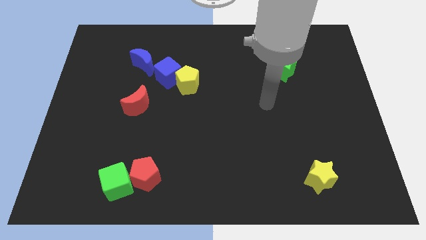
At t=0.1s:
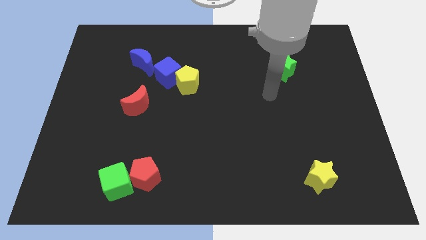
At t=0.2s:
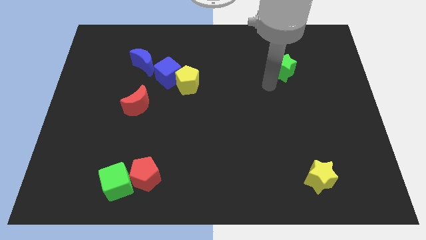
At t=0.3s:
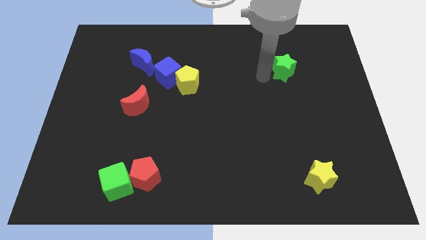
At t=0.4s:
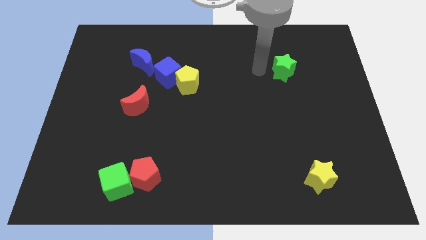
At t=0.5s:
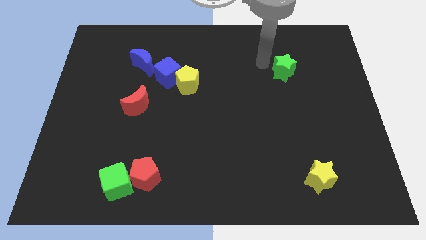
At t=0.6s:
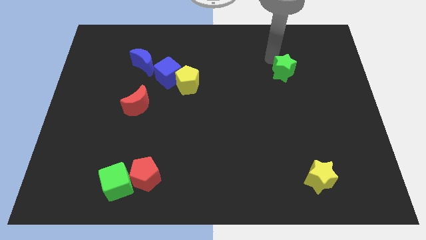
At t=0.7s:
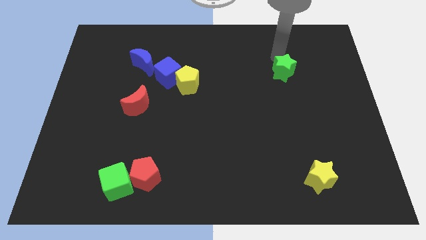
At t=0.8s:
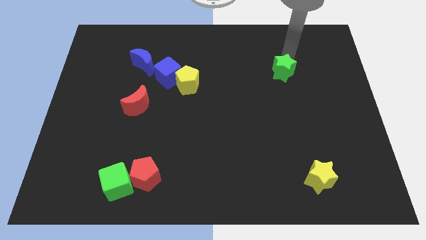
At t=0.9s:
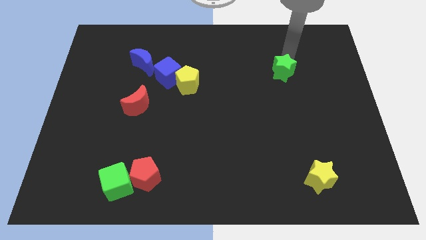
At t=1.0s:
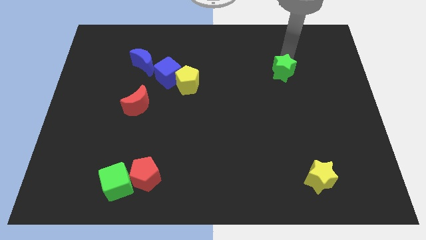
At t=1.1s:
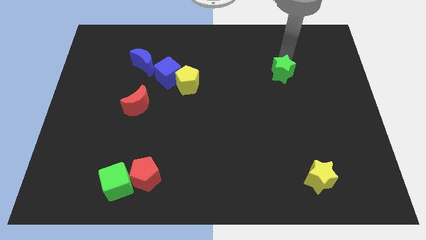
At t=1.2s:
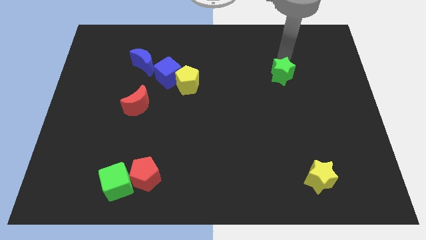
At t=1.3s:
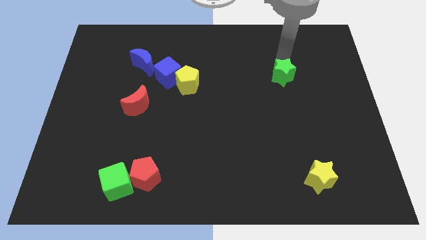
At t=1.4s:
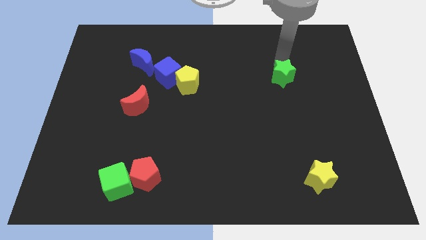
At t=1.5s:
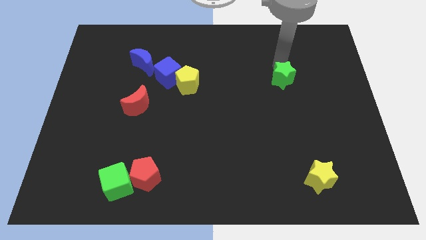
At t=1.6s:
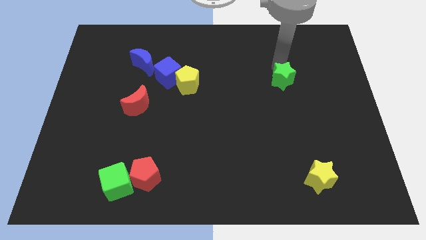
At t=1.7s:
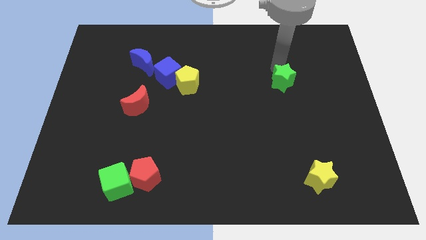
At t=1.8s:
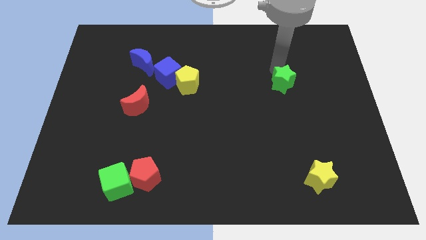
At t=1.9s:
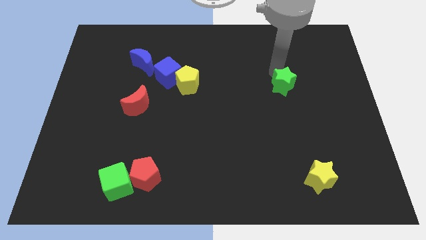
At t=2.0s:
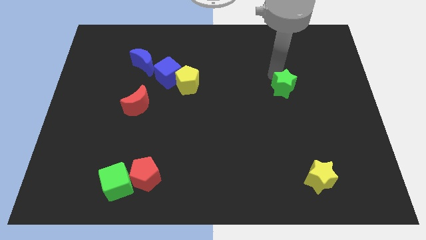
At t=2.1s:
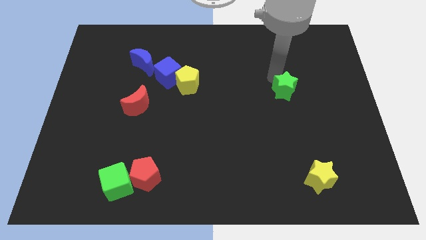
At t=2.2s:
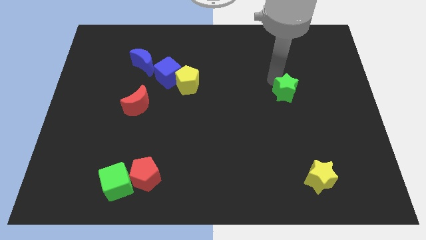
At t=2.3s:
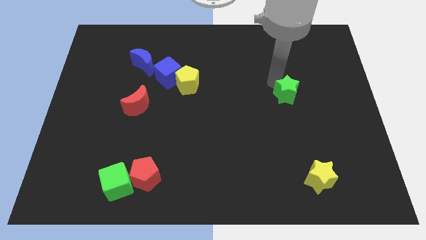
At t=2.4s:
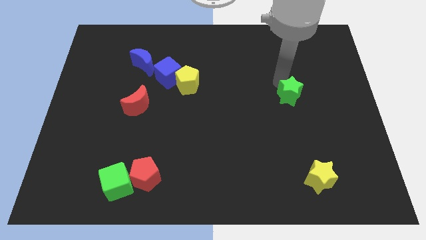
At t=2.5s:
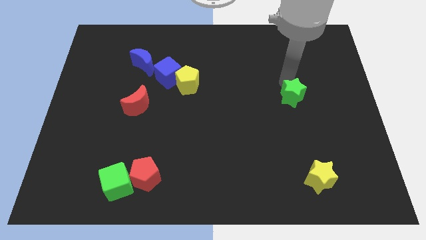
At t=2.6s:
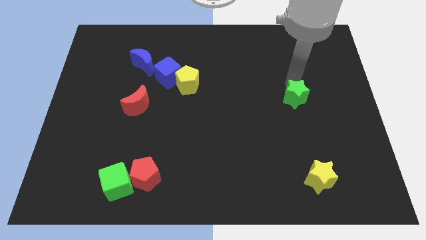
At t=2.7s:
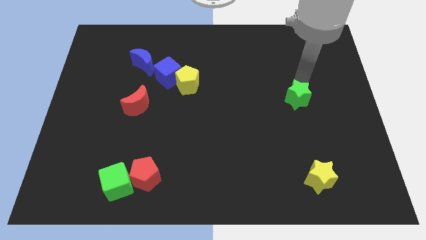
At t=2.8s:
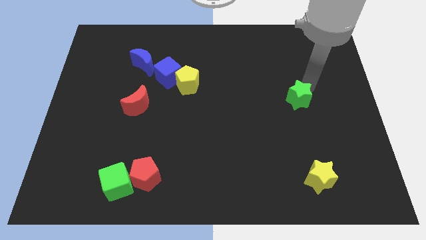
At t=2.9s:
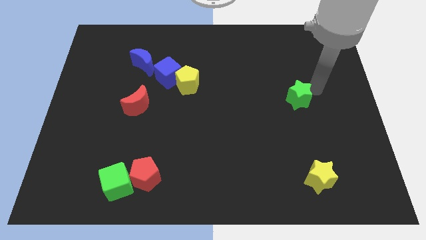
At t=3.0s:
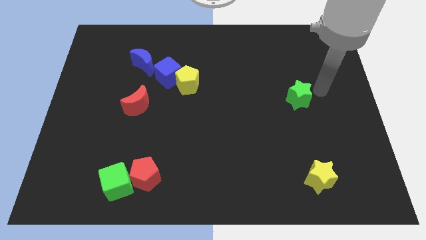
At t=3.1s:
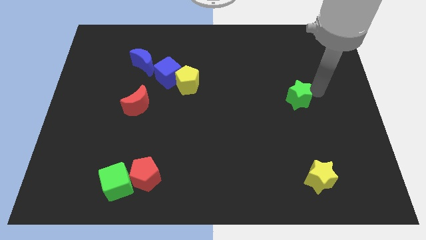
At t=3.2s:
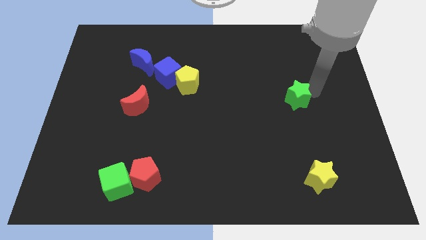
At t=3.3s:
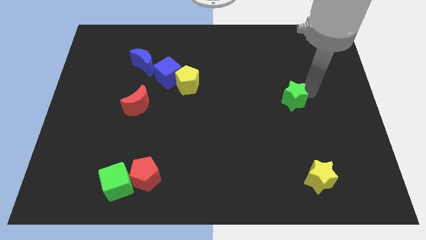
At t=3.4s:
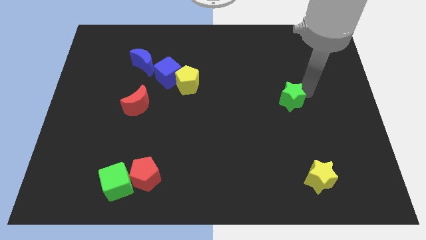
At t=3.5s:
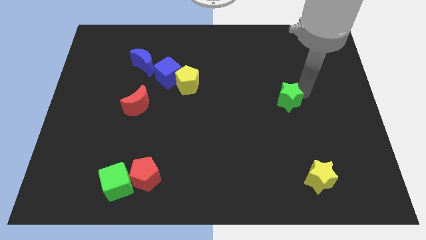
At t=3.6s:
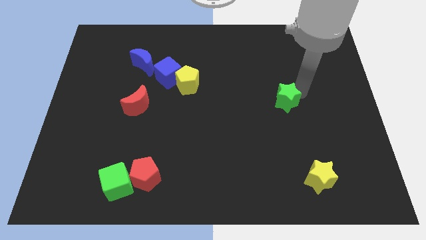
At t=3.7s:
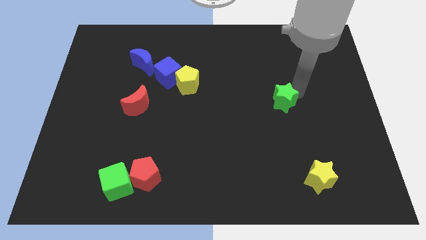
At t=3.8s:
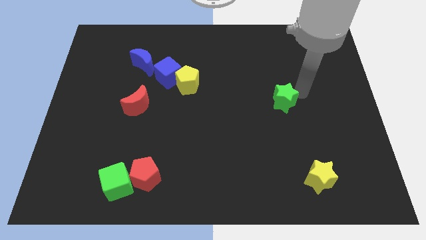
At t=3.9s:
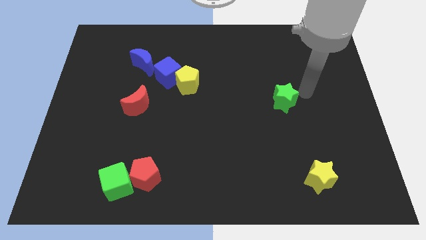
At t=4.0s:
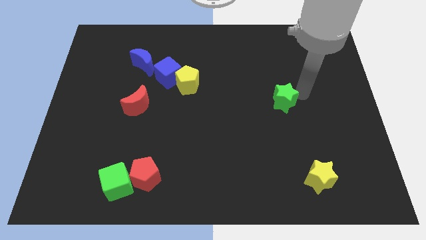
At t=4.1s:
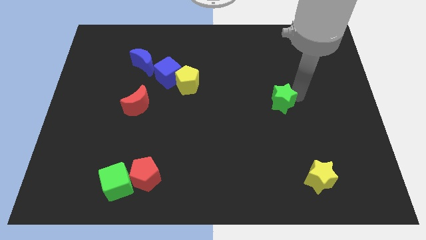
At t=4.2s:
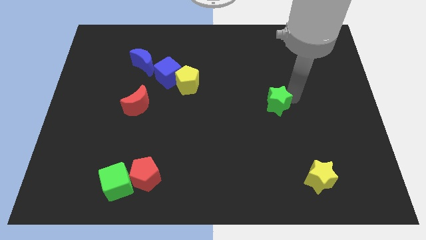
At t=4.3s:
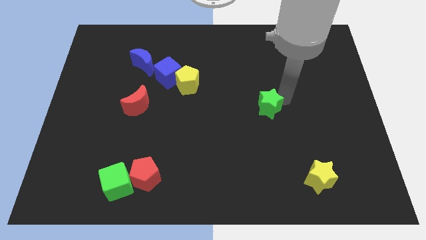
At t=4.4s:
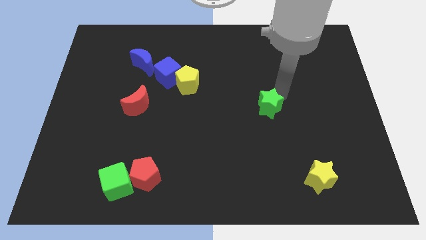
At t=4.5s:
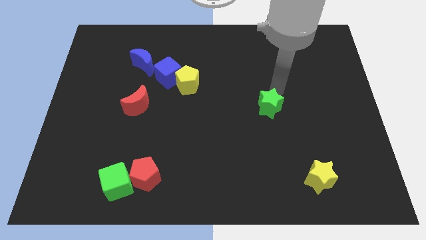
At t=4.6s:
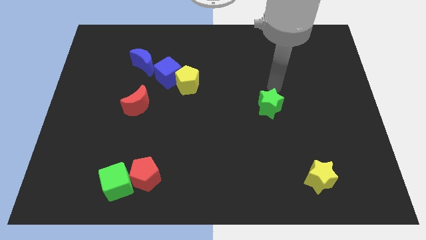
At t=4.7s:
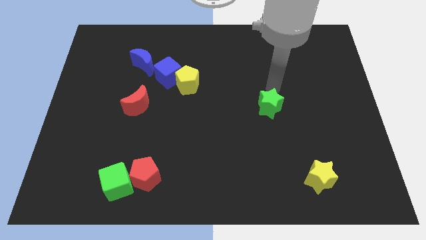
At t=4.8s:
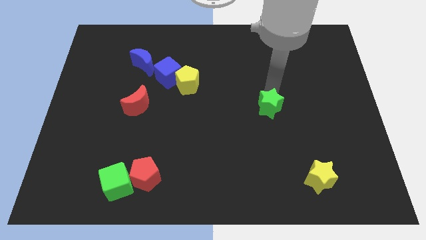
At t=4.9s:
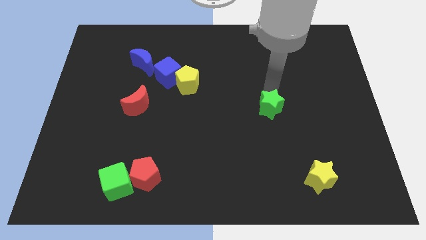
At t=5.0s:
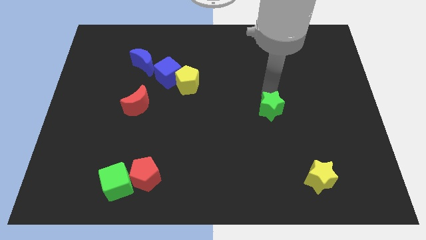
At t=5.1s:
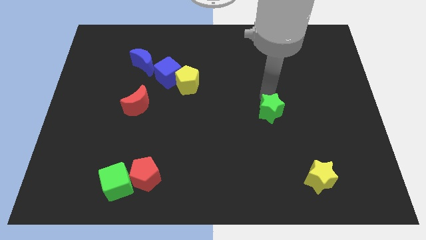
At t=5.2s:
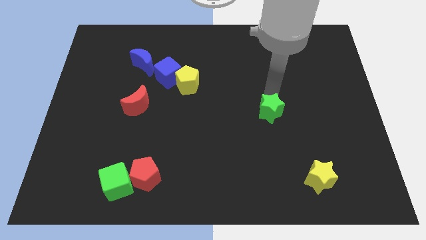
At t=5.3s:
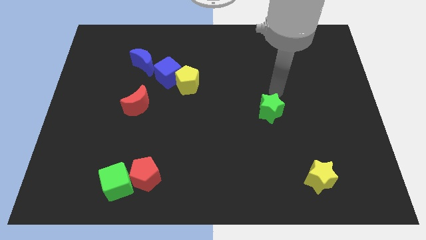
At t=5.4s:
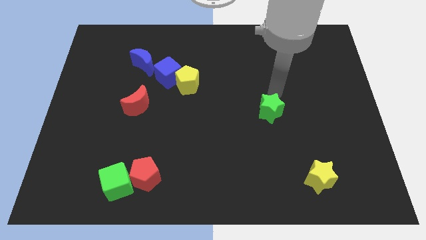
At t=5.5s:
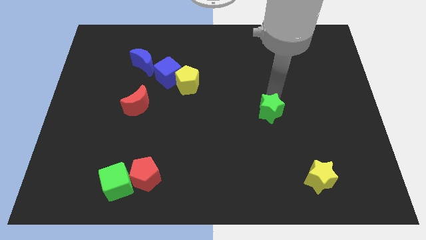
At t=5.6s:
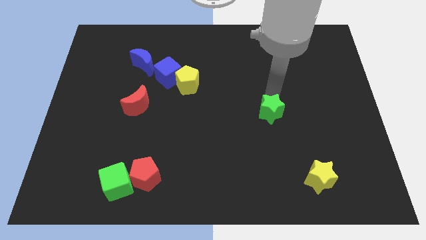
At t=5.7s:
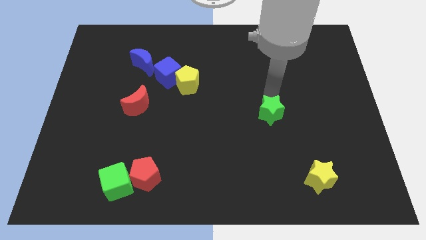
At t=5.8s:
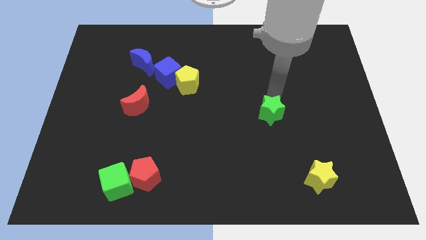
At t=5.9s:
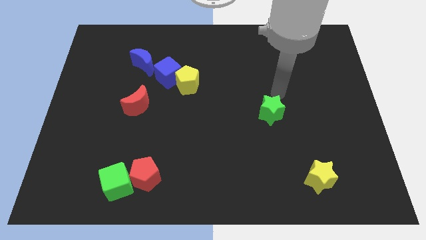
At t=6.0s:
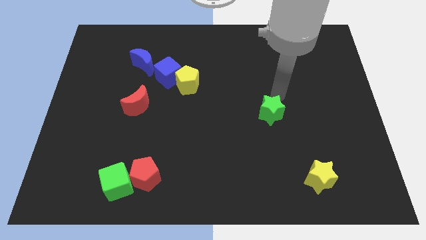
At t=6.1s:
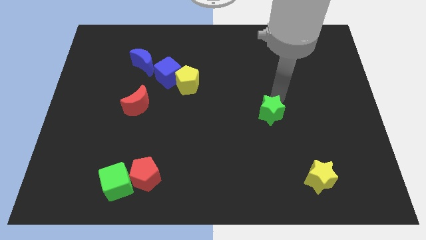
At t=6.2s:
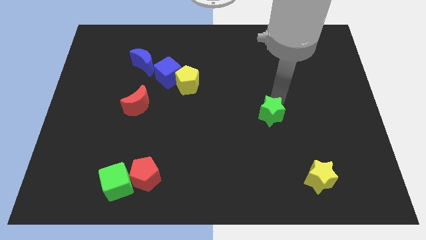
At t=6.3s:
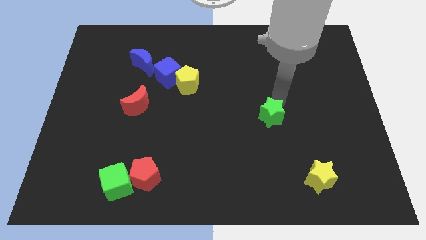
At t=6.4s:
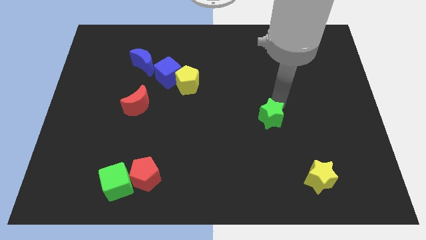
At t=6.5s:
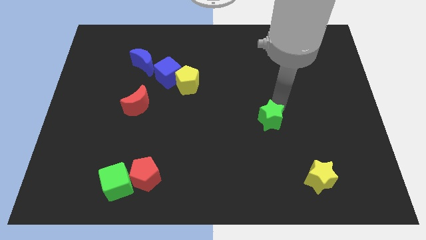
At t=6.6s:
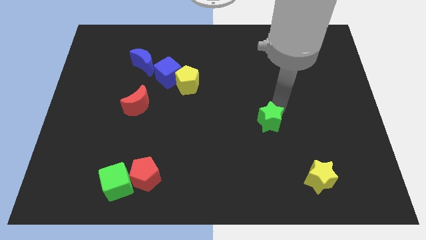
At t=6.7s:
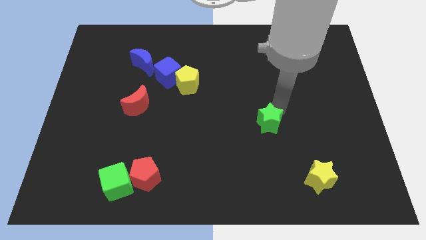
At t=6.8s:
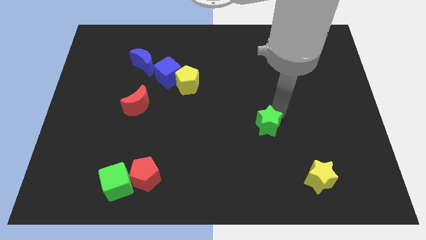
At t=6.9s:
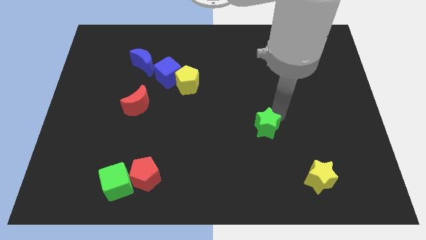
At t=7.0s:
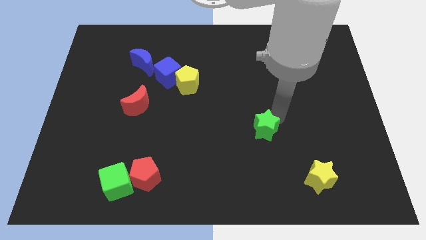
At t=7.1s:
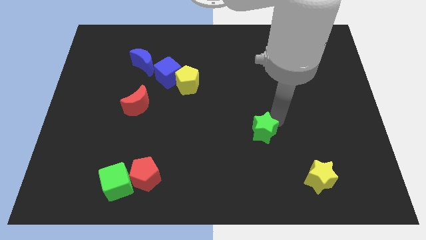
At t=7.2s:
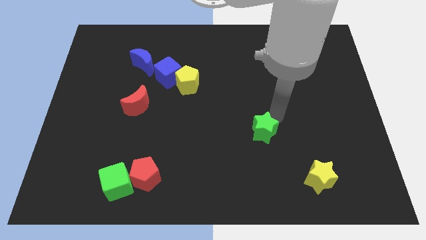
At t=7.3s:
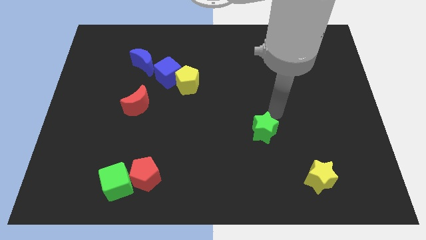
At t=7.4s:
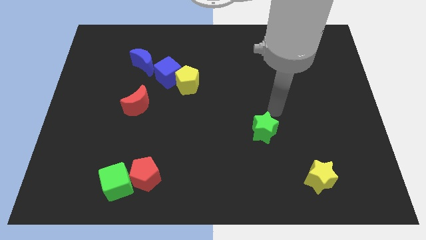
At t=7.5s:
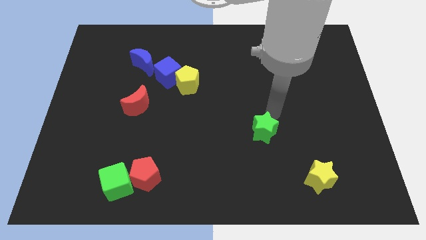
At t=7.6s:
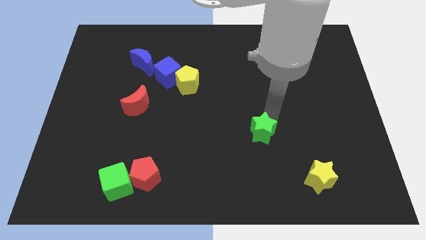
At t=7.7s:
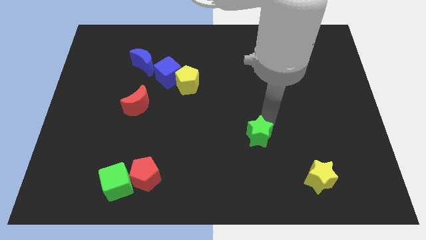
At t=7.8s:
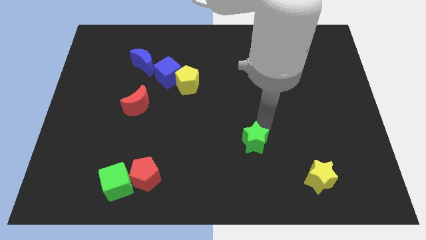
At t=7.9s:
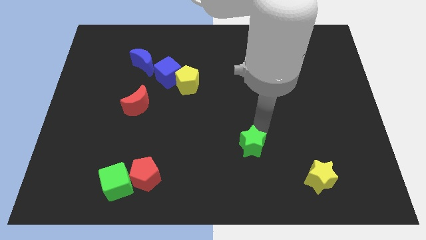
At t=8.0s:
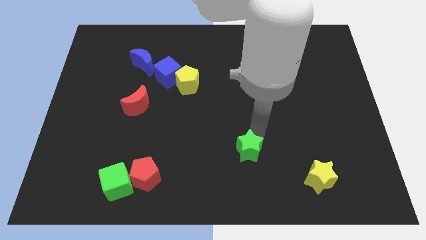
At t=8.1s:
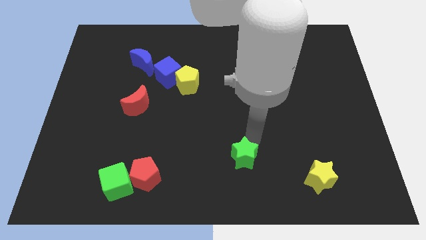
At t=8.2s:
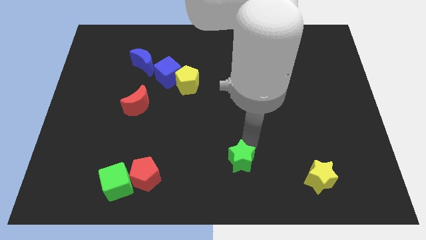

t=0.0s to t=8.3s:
put the green star to the bottom
